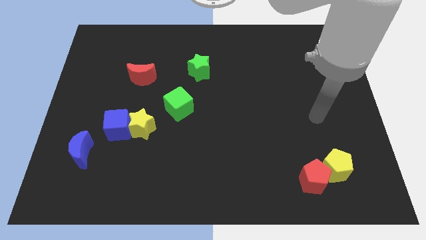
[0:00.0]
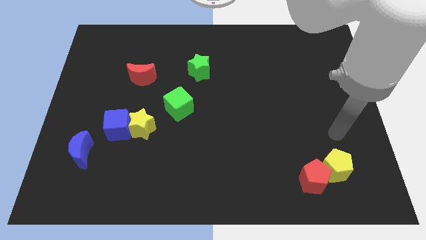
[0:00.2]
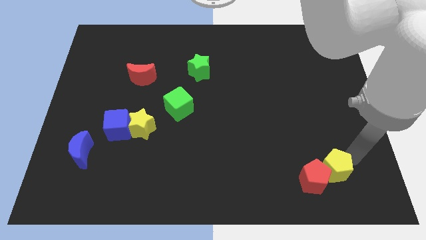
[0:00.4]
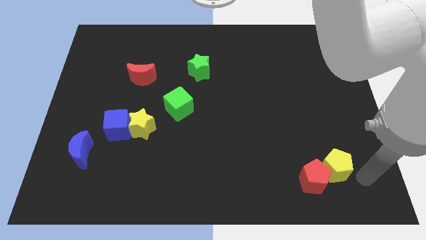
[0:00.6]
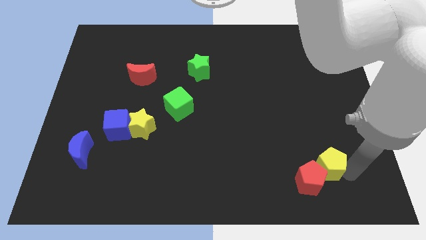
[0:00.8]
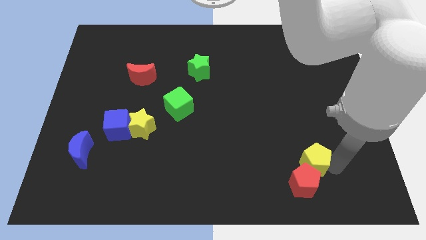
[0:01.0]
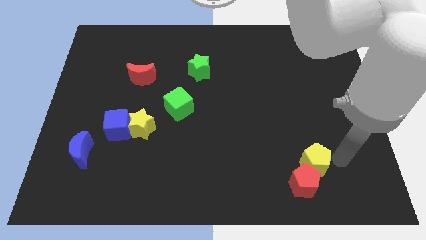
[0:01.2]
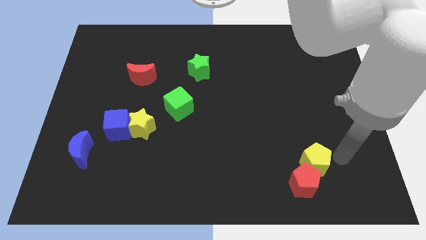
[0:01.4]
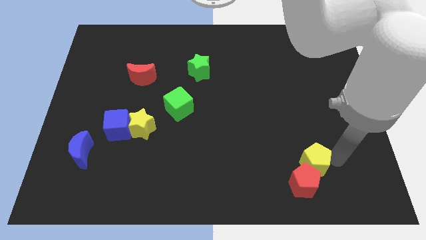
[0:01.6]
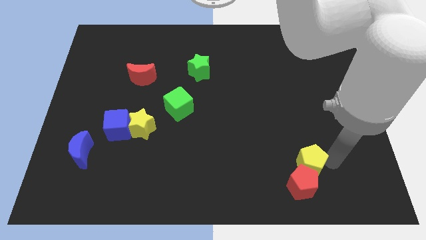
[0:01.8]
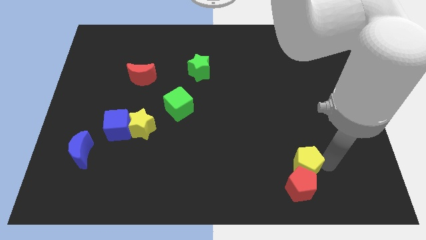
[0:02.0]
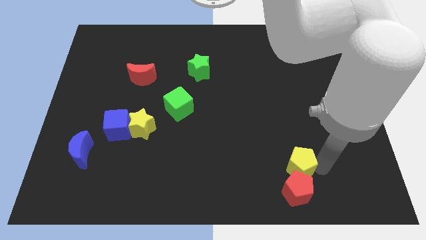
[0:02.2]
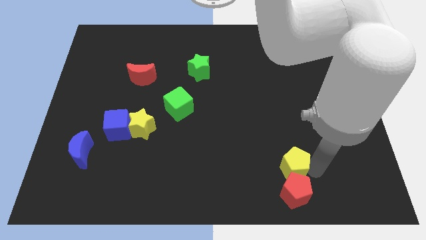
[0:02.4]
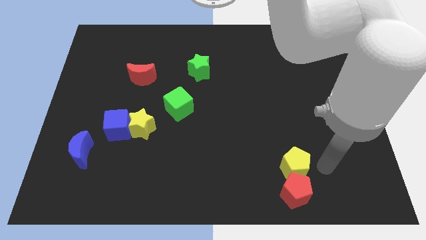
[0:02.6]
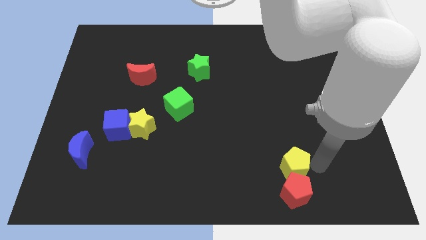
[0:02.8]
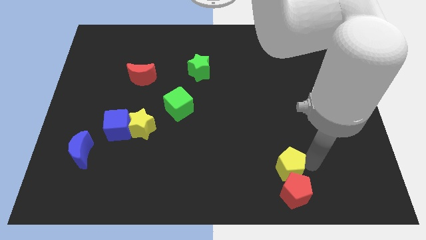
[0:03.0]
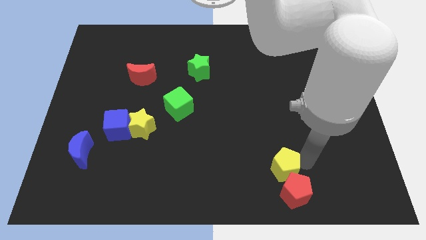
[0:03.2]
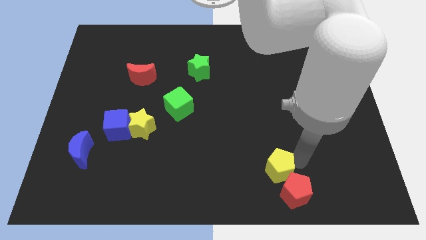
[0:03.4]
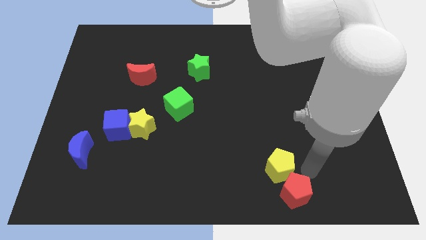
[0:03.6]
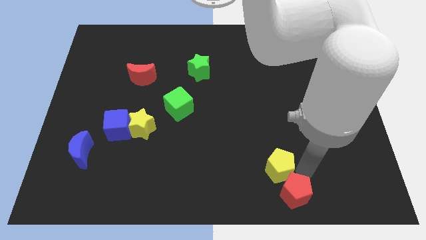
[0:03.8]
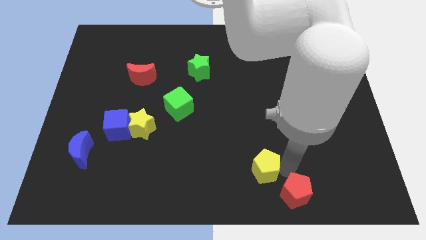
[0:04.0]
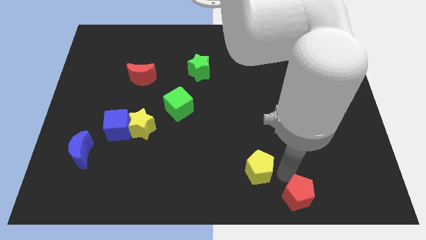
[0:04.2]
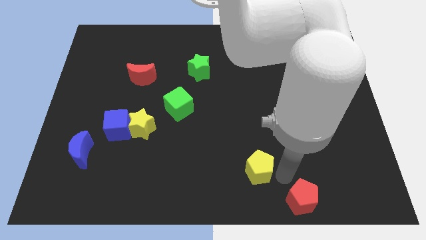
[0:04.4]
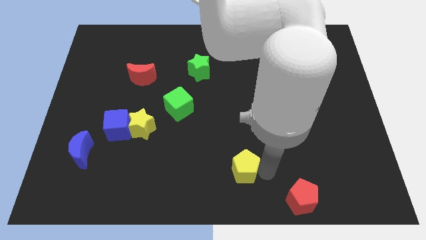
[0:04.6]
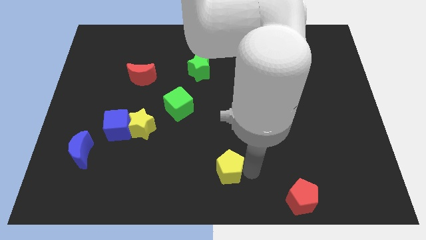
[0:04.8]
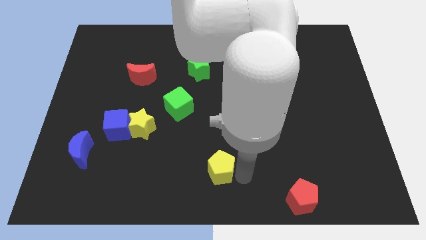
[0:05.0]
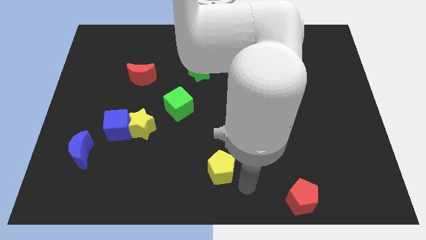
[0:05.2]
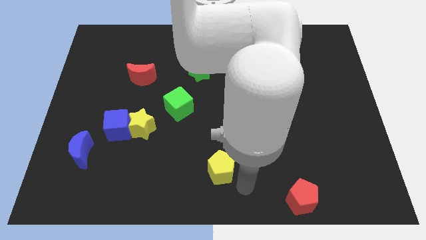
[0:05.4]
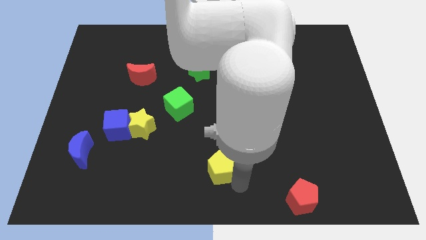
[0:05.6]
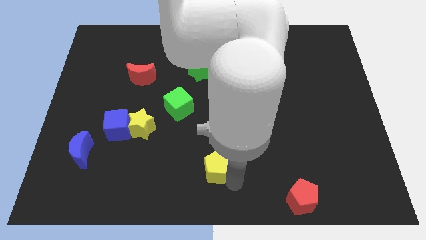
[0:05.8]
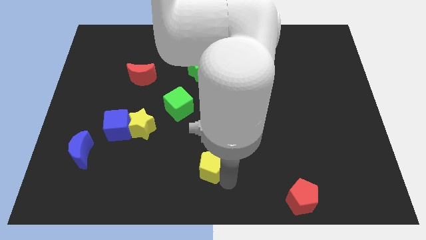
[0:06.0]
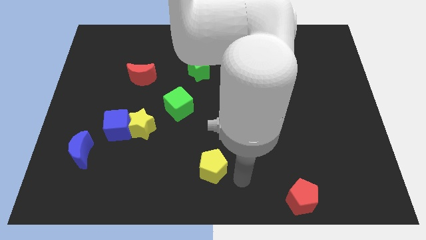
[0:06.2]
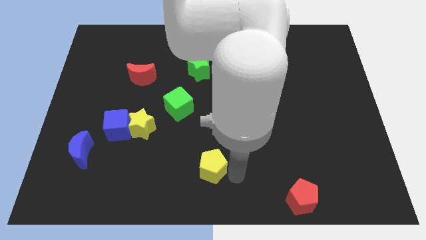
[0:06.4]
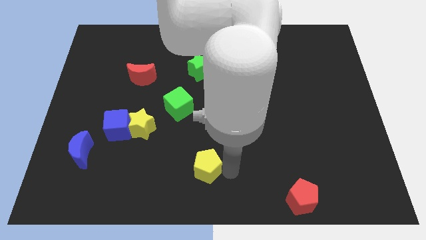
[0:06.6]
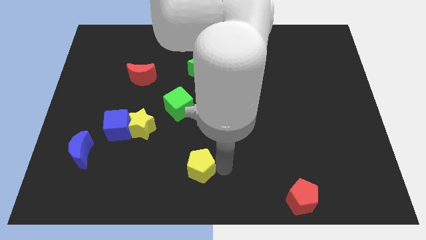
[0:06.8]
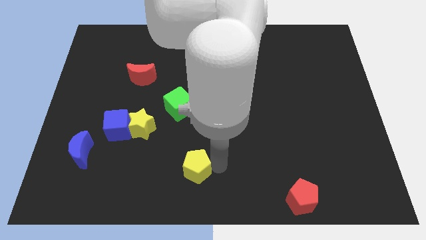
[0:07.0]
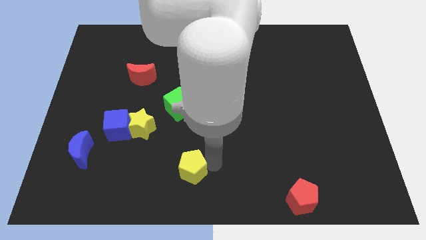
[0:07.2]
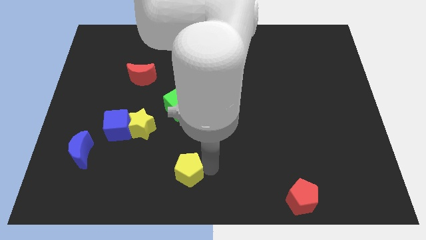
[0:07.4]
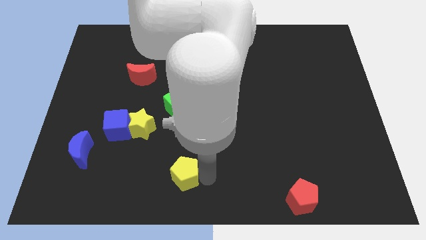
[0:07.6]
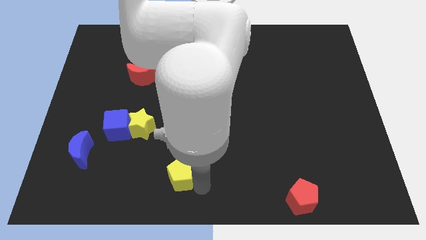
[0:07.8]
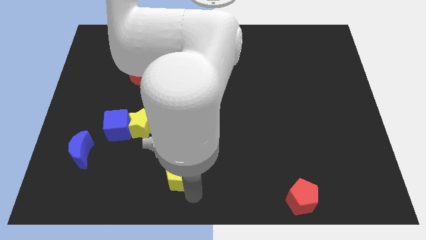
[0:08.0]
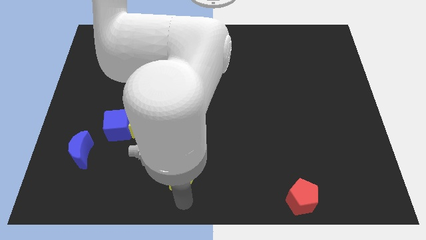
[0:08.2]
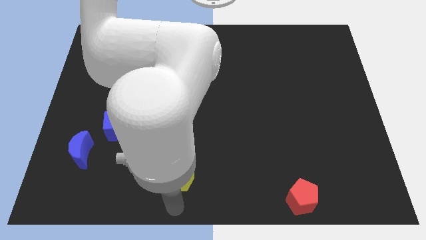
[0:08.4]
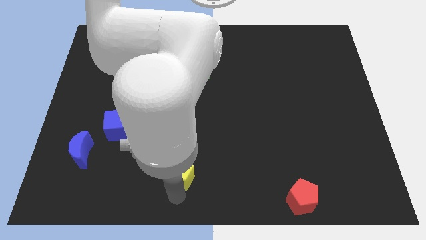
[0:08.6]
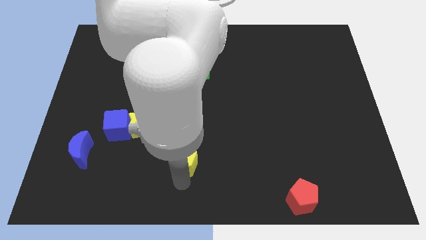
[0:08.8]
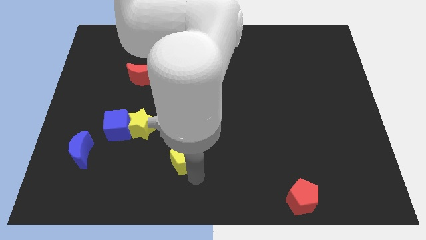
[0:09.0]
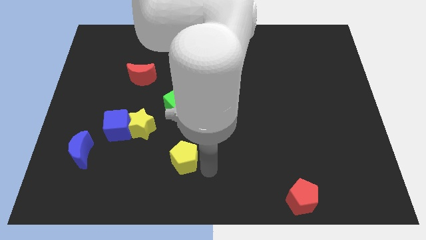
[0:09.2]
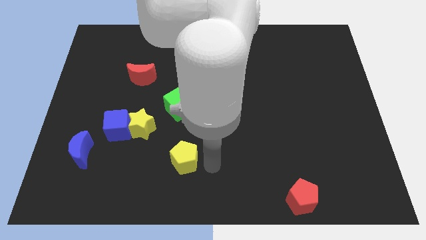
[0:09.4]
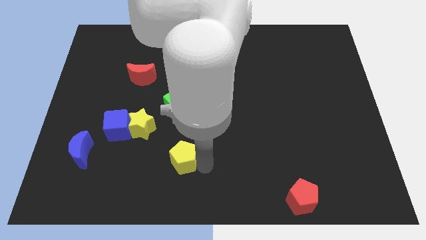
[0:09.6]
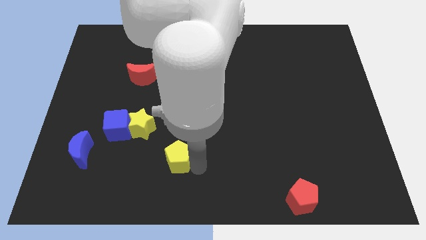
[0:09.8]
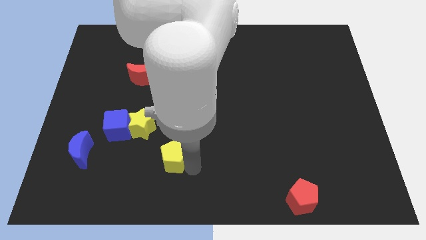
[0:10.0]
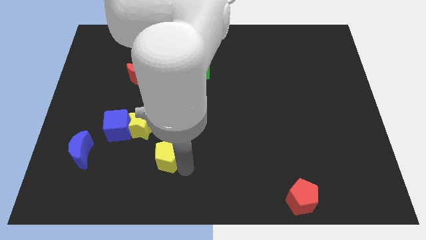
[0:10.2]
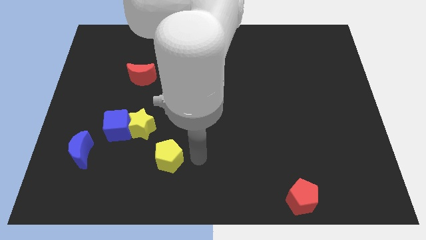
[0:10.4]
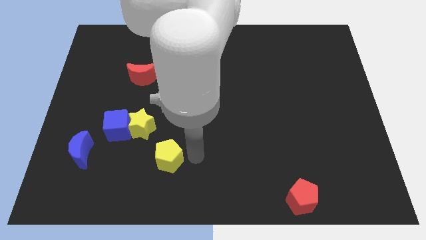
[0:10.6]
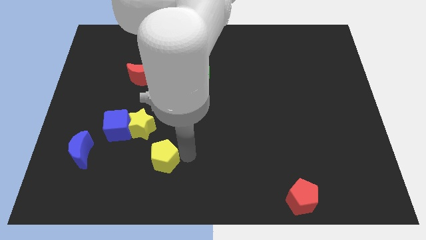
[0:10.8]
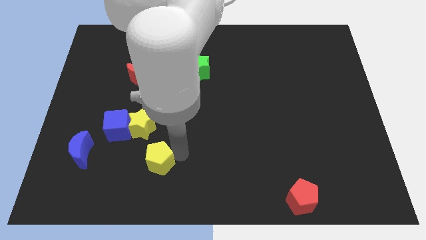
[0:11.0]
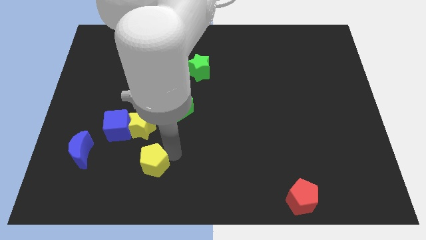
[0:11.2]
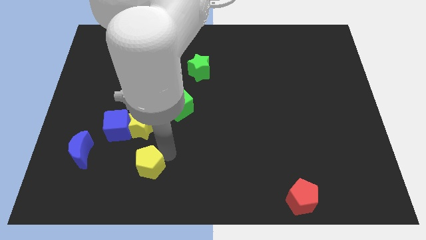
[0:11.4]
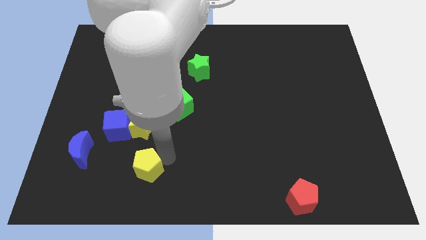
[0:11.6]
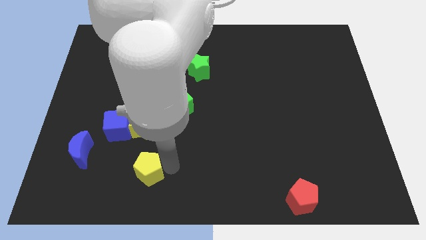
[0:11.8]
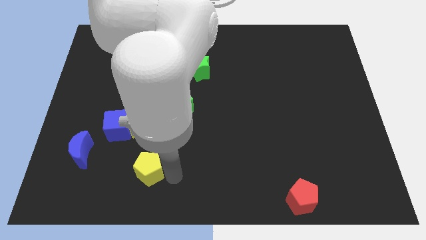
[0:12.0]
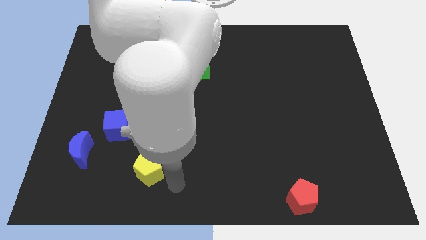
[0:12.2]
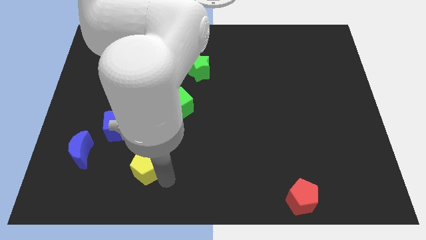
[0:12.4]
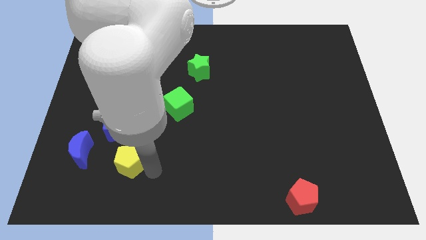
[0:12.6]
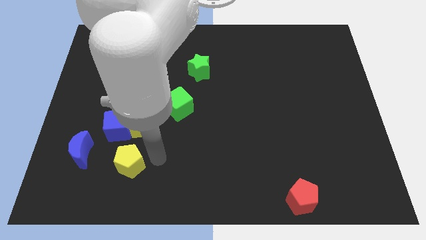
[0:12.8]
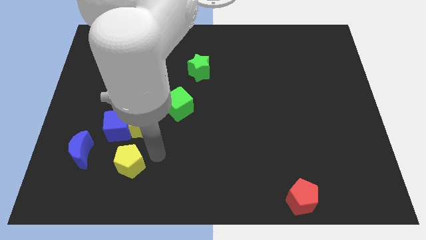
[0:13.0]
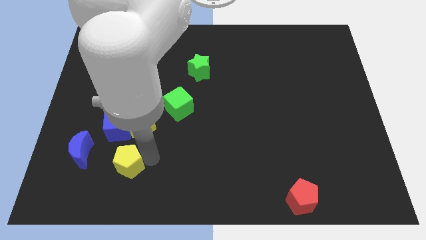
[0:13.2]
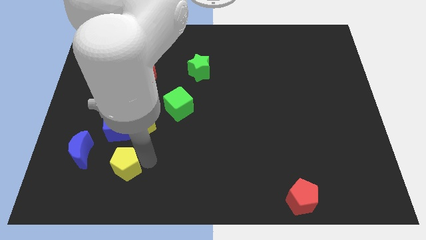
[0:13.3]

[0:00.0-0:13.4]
put the yellow pentagon to the bottom right of the blue moon

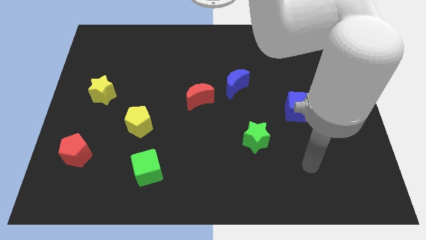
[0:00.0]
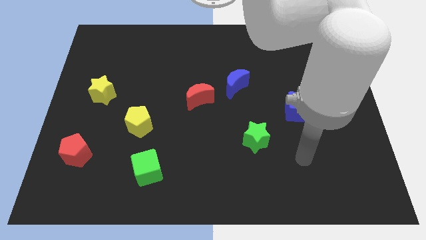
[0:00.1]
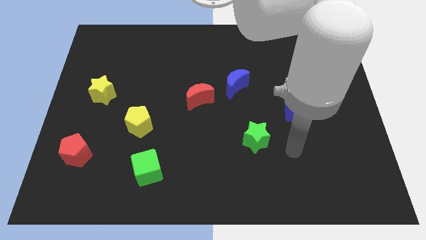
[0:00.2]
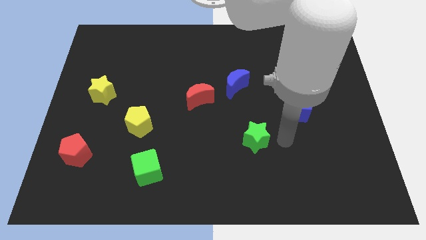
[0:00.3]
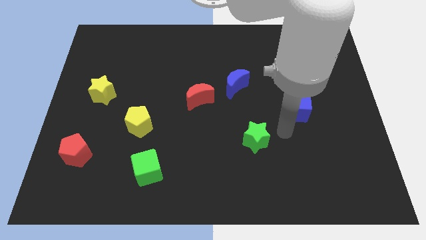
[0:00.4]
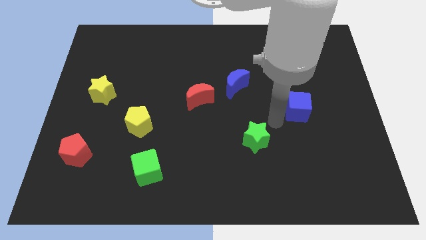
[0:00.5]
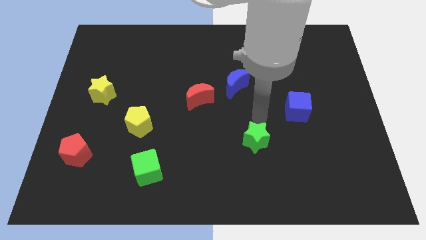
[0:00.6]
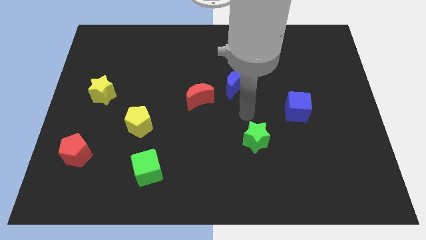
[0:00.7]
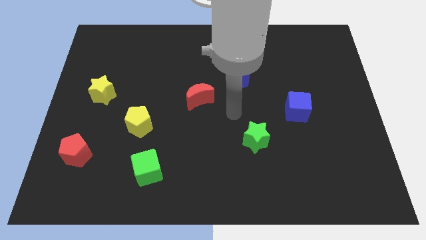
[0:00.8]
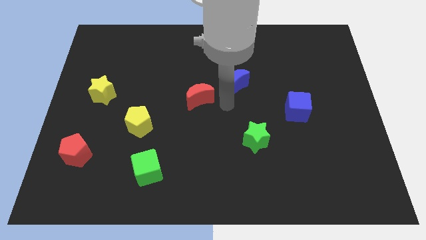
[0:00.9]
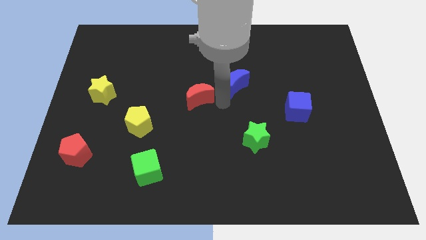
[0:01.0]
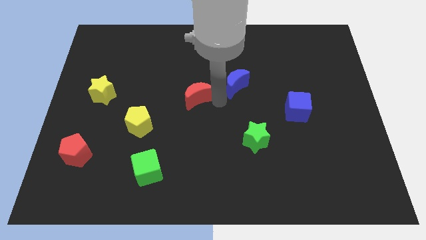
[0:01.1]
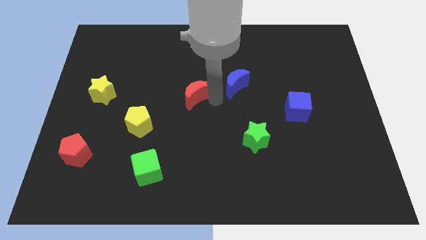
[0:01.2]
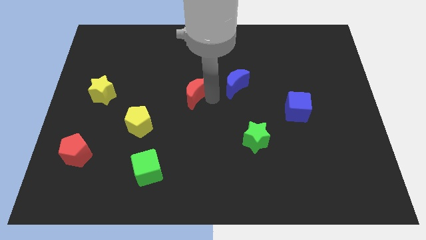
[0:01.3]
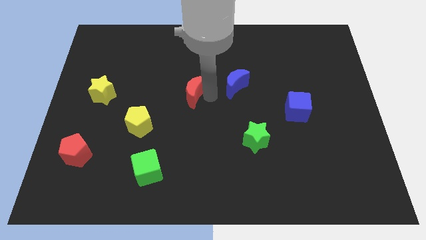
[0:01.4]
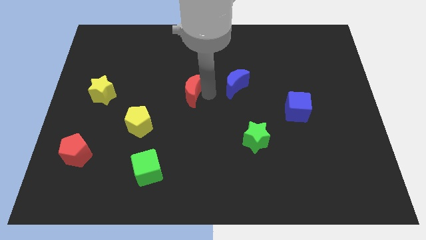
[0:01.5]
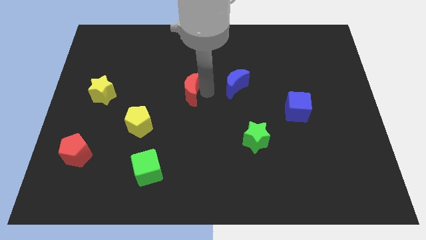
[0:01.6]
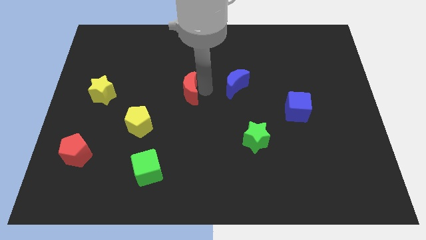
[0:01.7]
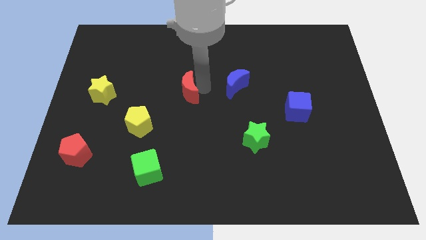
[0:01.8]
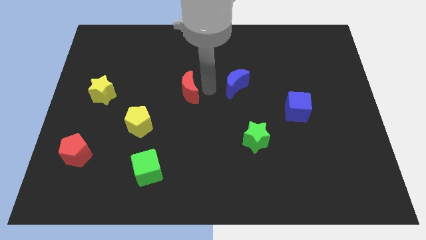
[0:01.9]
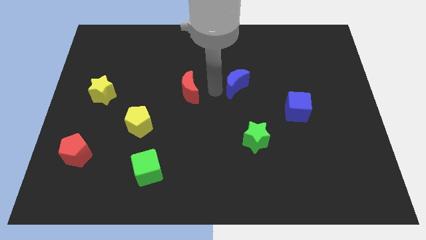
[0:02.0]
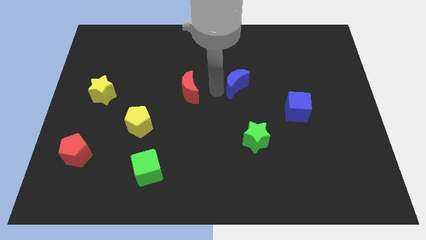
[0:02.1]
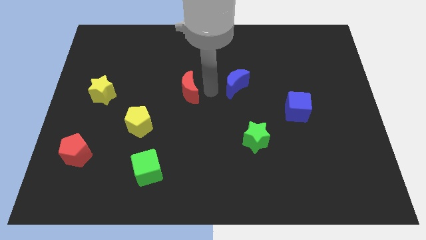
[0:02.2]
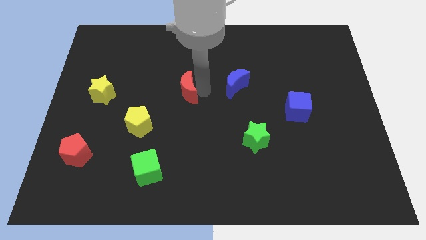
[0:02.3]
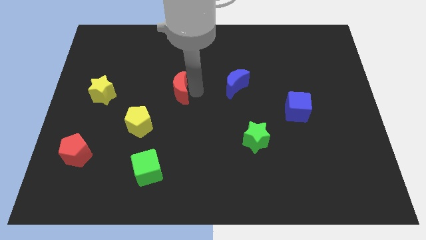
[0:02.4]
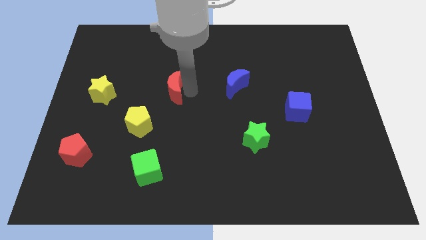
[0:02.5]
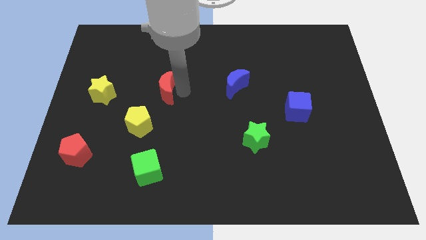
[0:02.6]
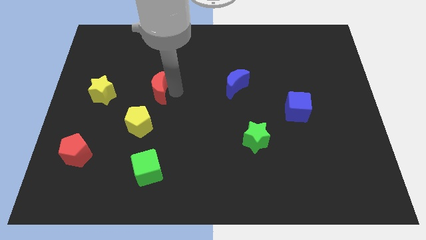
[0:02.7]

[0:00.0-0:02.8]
put the red moon to the top of the yellow pentagon
